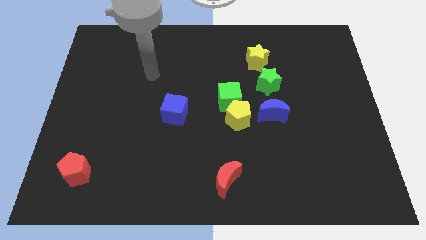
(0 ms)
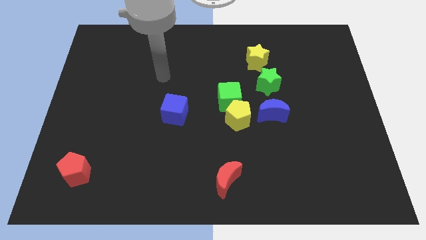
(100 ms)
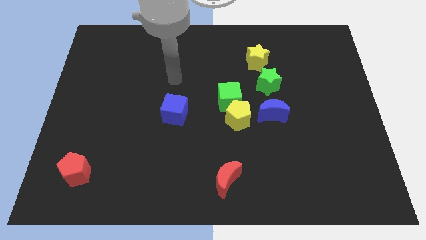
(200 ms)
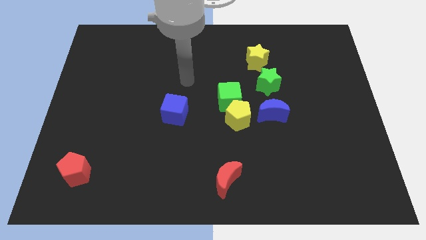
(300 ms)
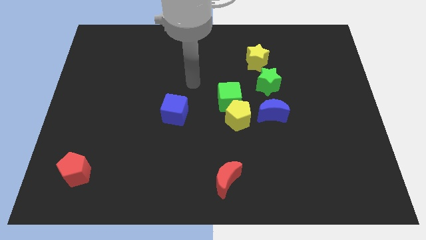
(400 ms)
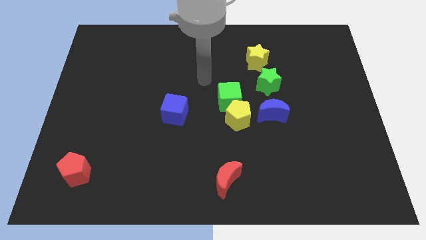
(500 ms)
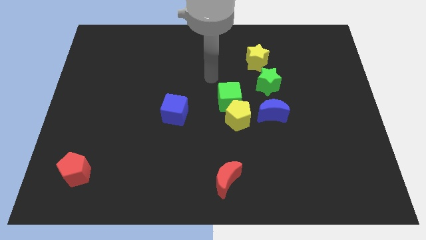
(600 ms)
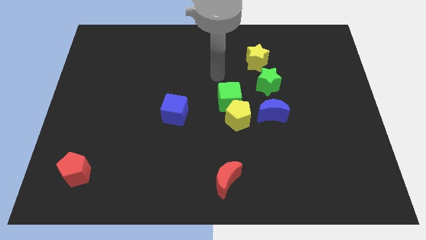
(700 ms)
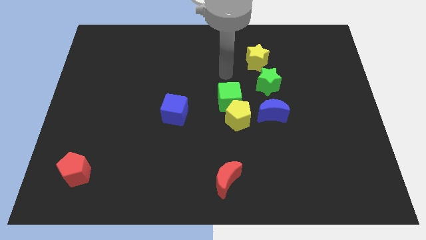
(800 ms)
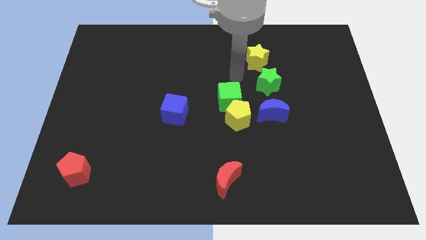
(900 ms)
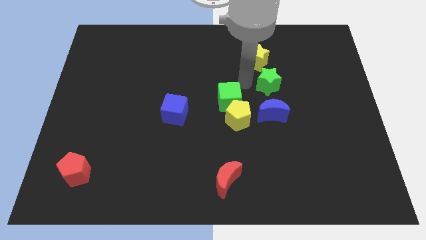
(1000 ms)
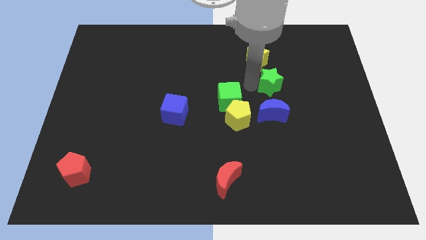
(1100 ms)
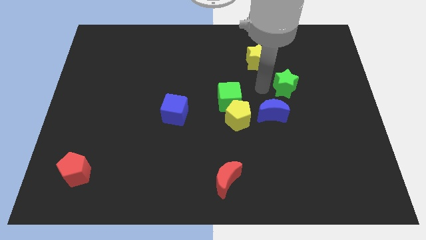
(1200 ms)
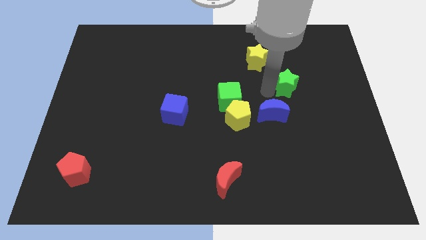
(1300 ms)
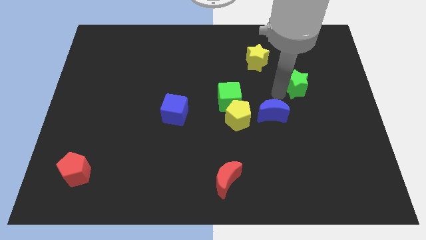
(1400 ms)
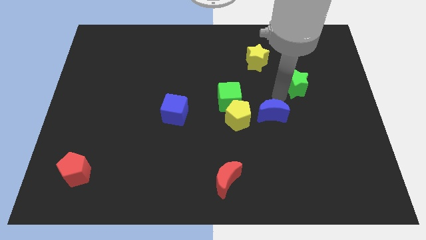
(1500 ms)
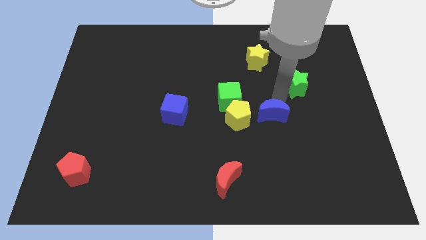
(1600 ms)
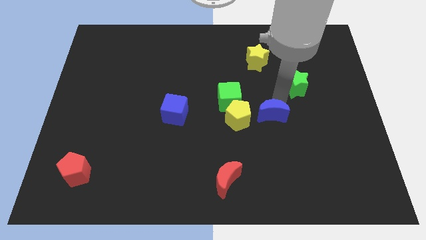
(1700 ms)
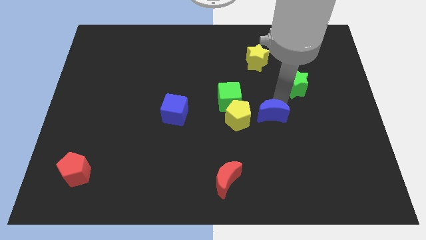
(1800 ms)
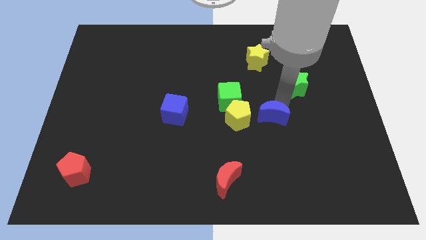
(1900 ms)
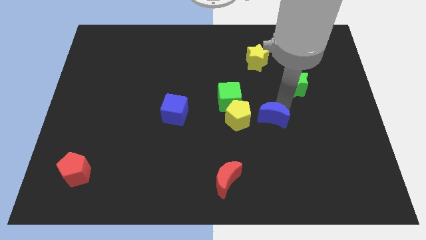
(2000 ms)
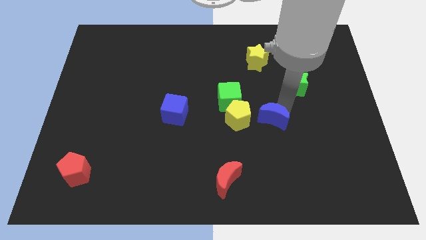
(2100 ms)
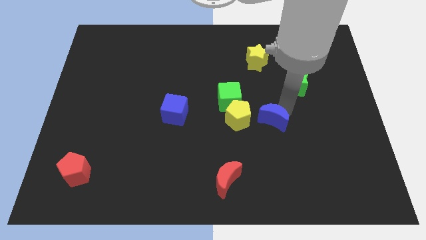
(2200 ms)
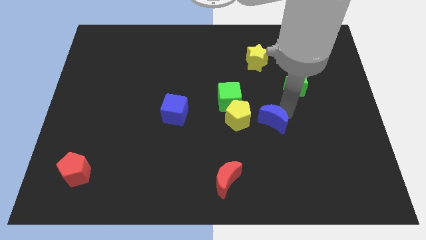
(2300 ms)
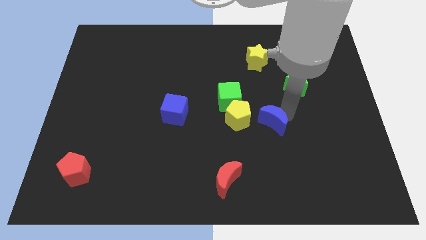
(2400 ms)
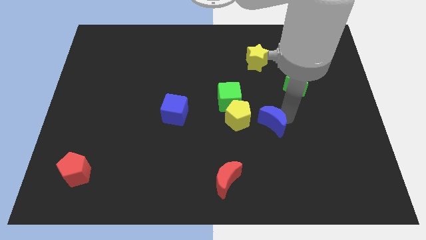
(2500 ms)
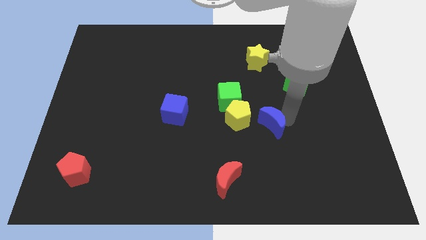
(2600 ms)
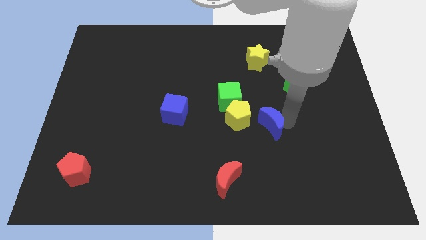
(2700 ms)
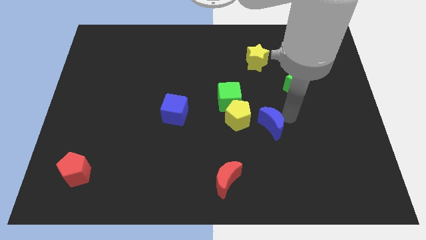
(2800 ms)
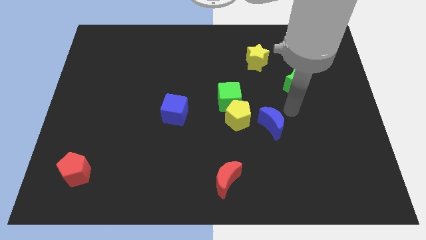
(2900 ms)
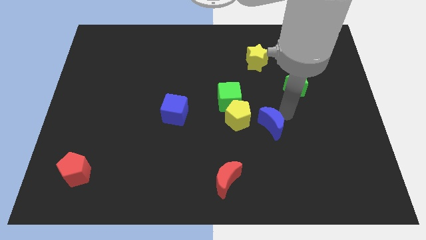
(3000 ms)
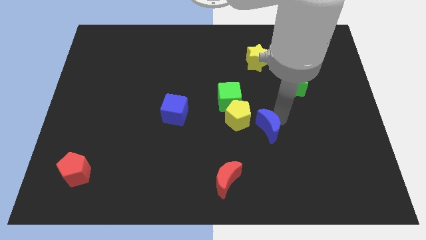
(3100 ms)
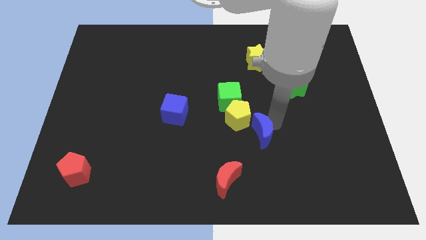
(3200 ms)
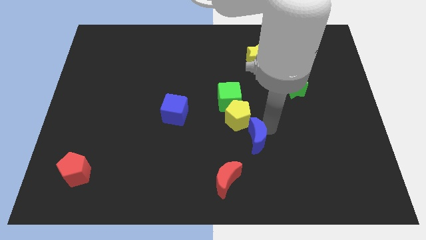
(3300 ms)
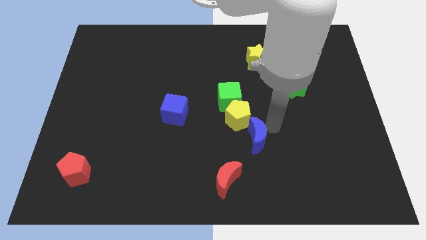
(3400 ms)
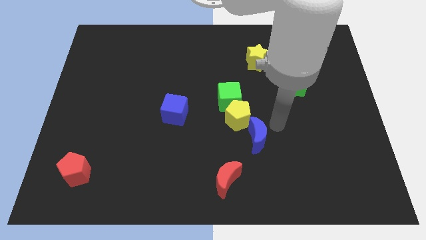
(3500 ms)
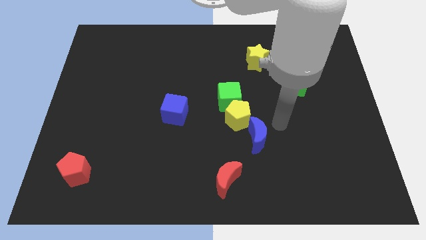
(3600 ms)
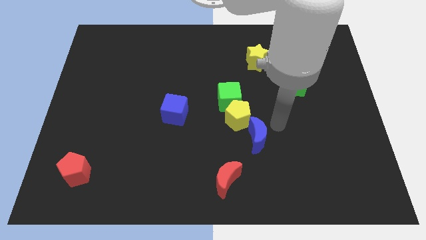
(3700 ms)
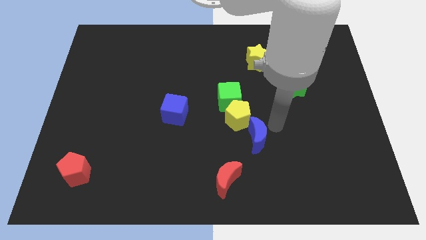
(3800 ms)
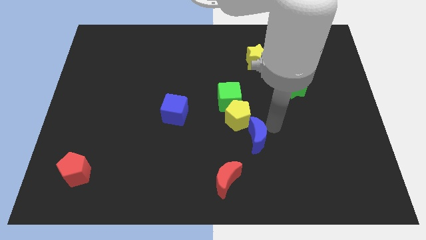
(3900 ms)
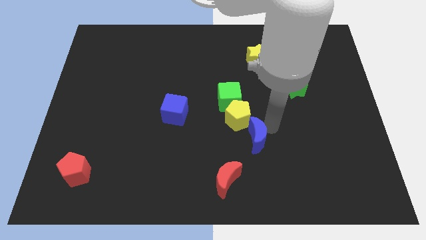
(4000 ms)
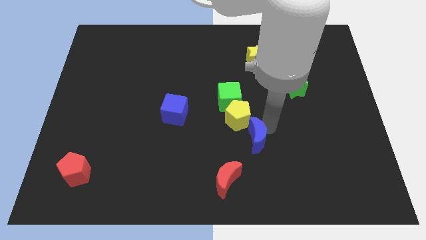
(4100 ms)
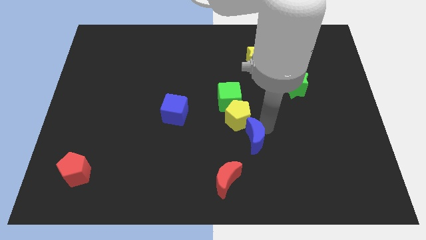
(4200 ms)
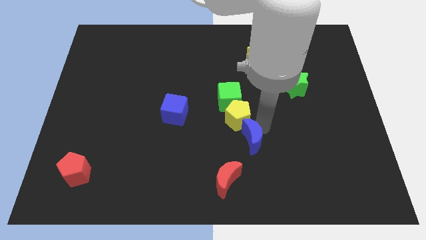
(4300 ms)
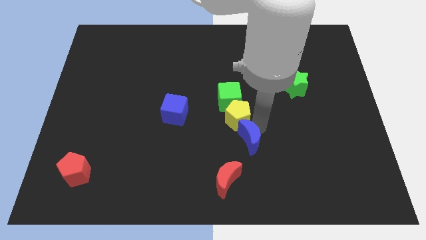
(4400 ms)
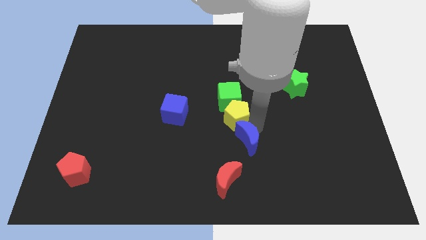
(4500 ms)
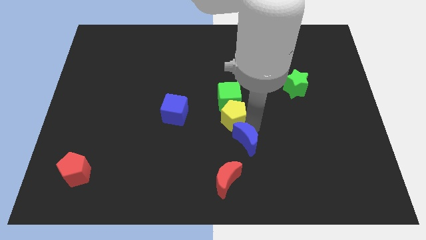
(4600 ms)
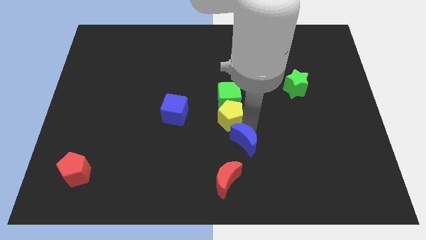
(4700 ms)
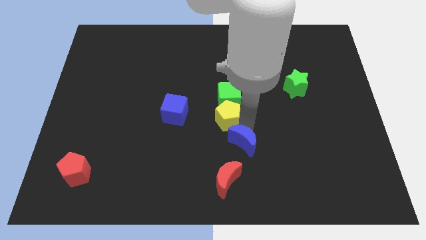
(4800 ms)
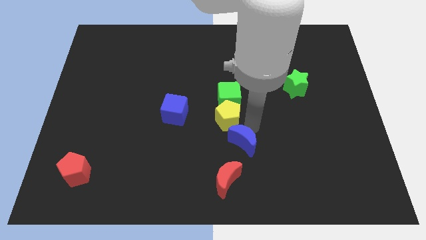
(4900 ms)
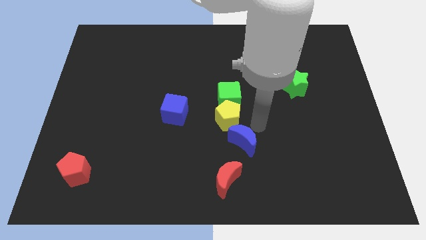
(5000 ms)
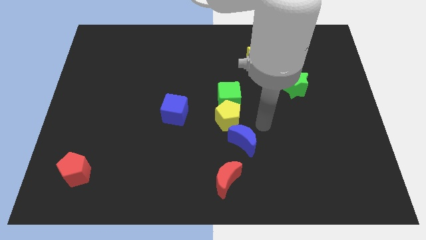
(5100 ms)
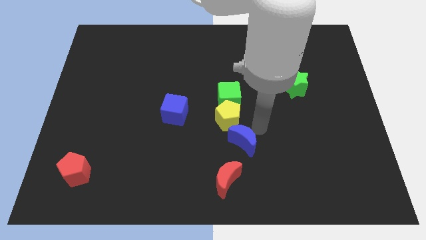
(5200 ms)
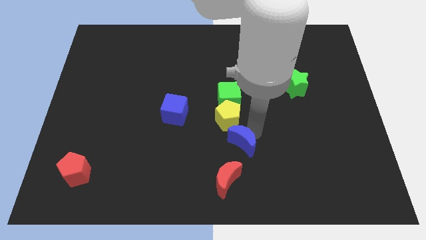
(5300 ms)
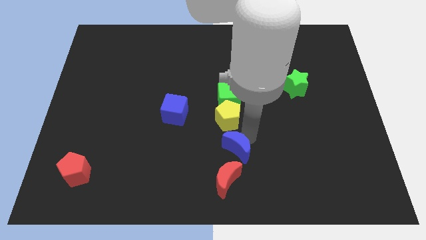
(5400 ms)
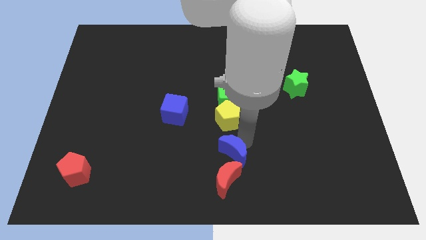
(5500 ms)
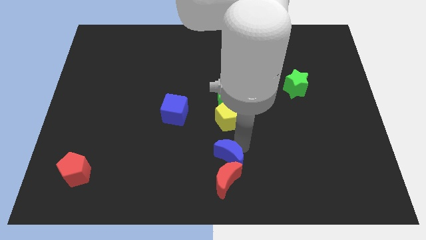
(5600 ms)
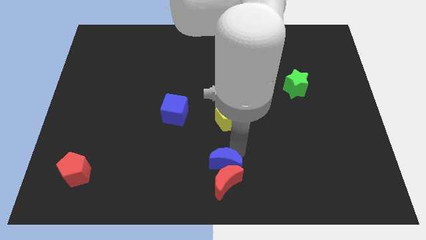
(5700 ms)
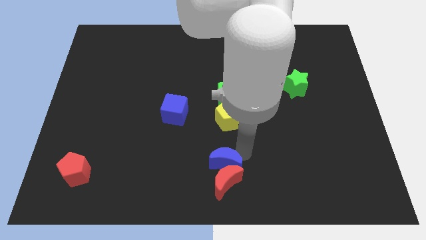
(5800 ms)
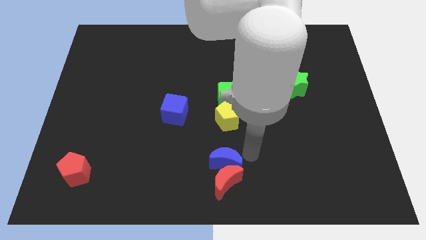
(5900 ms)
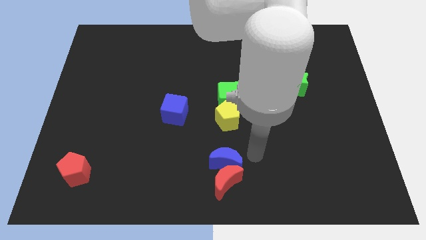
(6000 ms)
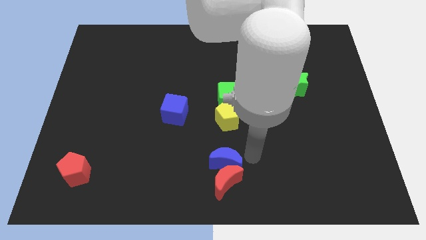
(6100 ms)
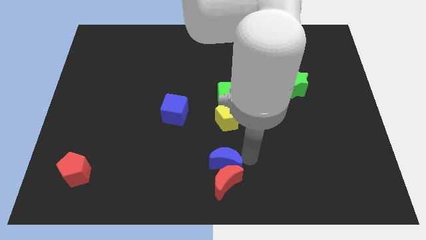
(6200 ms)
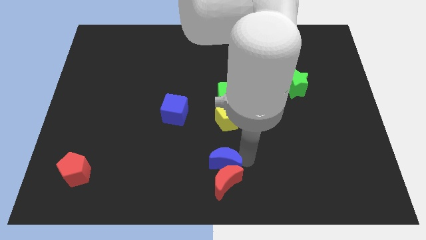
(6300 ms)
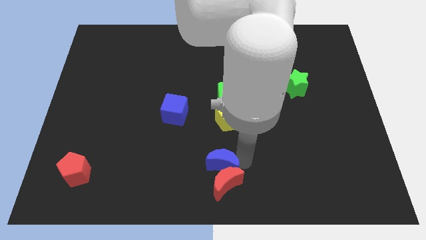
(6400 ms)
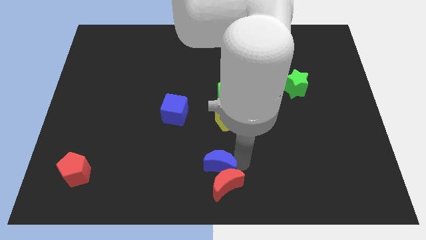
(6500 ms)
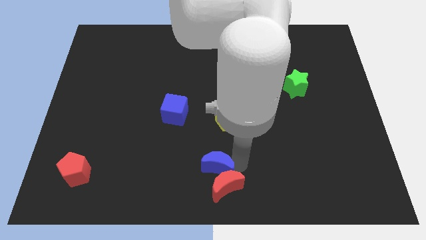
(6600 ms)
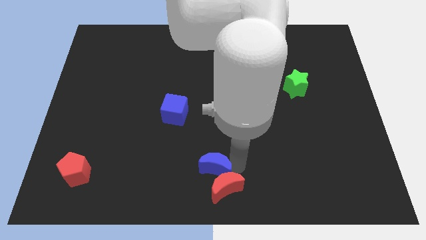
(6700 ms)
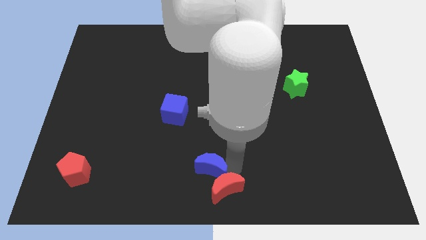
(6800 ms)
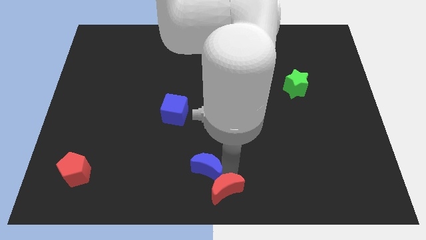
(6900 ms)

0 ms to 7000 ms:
move the blue moon to the left of the red moon
